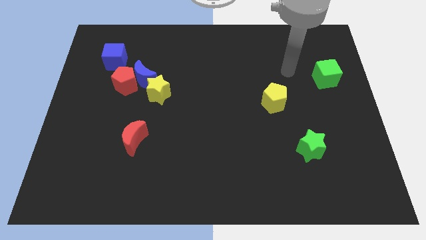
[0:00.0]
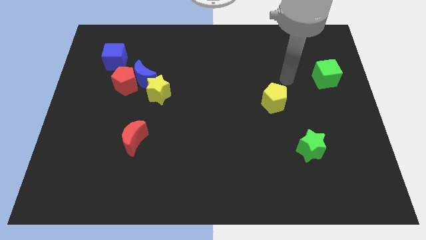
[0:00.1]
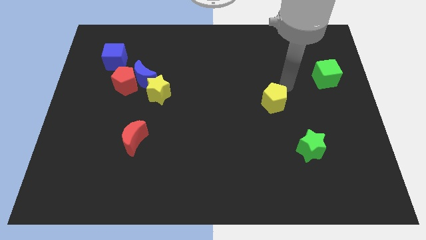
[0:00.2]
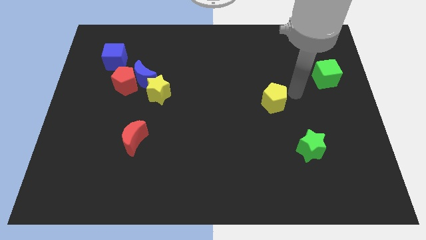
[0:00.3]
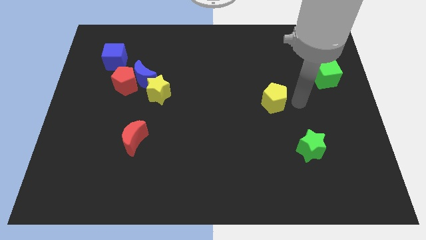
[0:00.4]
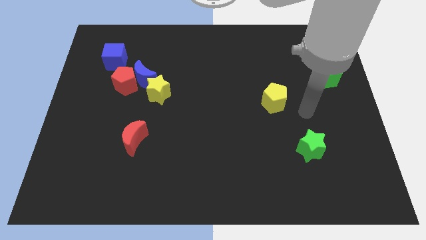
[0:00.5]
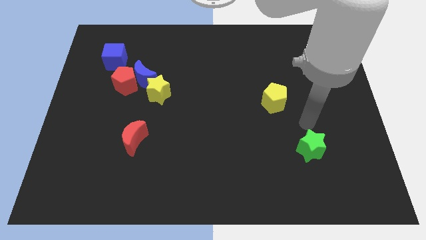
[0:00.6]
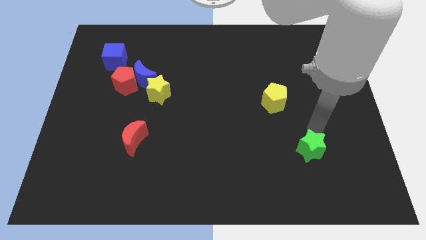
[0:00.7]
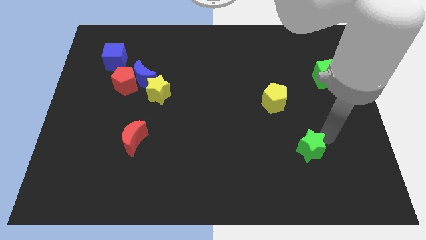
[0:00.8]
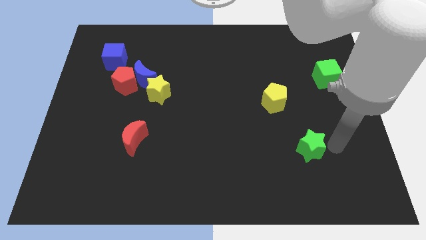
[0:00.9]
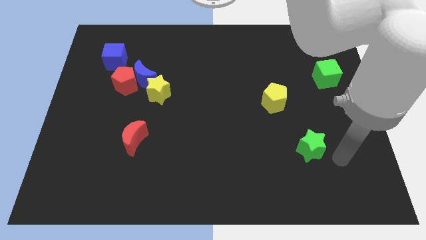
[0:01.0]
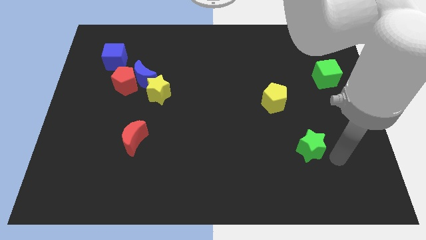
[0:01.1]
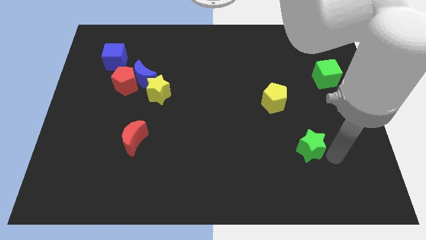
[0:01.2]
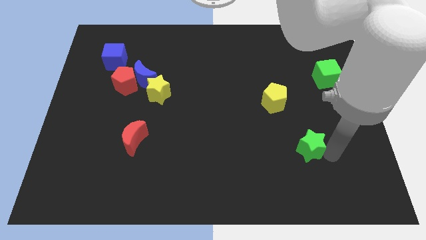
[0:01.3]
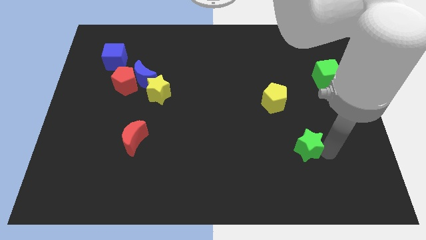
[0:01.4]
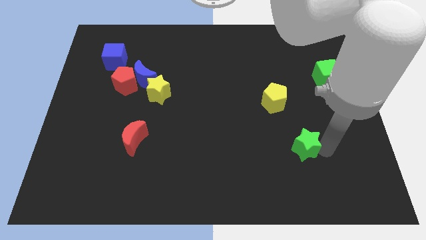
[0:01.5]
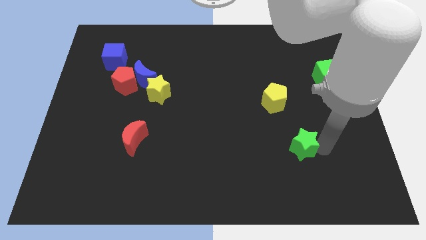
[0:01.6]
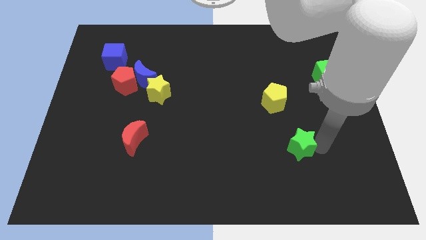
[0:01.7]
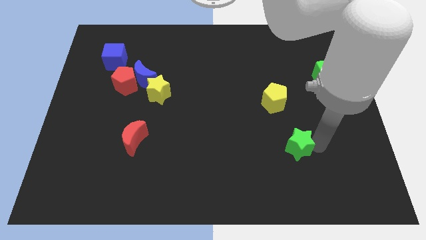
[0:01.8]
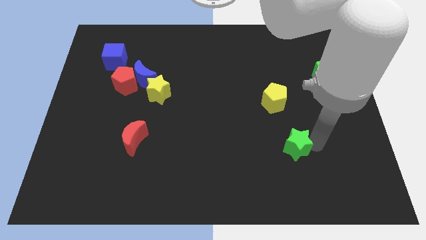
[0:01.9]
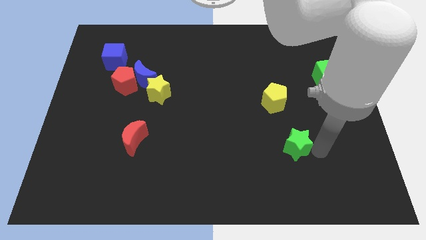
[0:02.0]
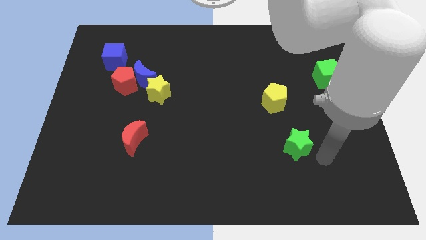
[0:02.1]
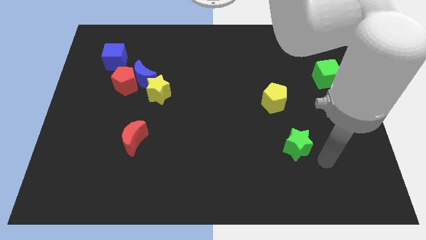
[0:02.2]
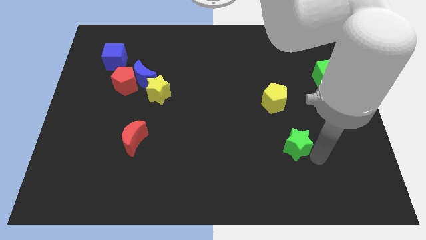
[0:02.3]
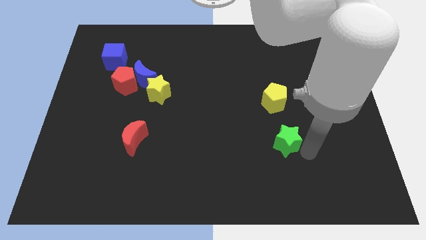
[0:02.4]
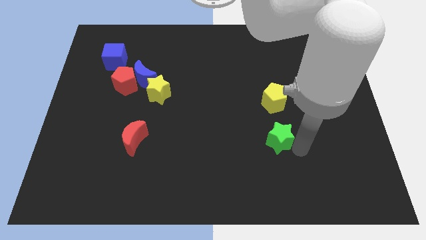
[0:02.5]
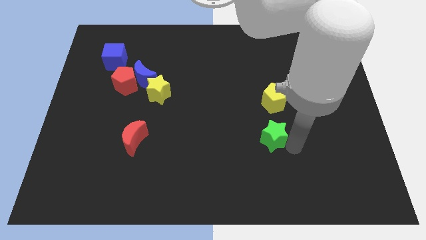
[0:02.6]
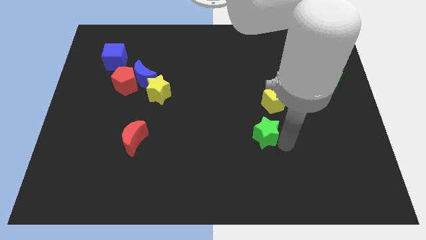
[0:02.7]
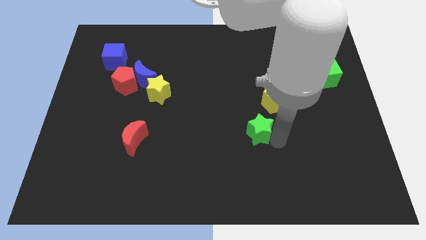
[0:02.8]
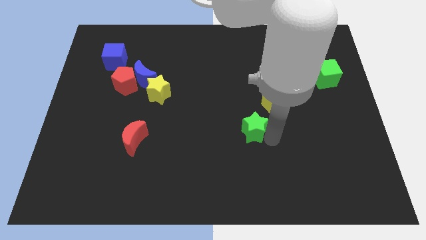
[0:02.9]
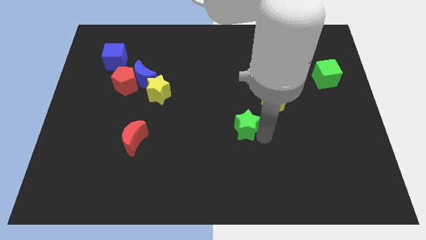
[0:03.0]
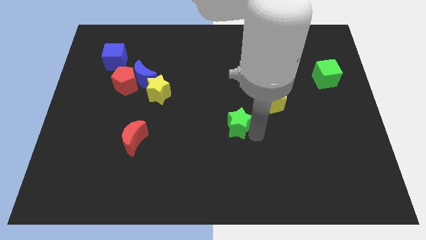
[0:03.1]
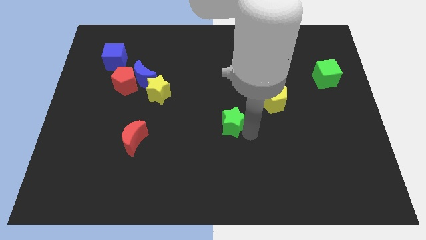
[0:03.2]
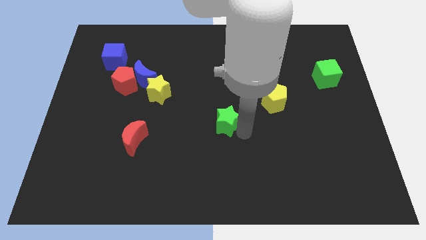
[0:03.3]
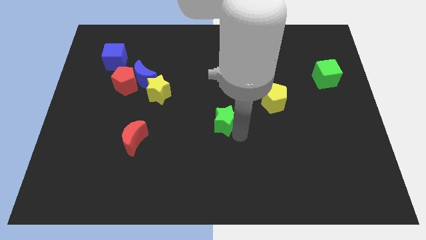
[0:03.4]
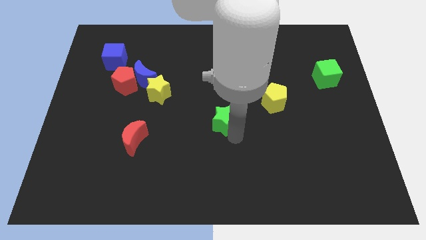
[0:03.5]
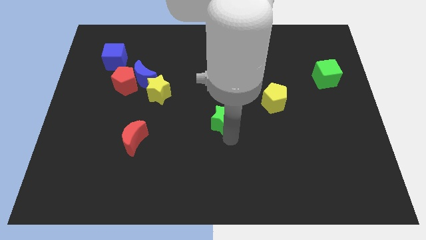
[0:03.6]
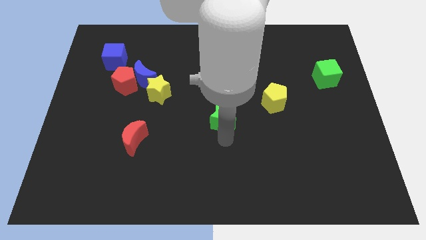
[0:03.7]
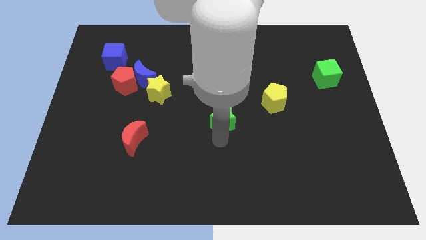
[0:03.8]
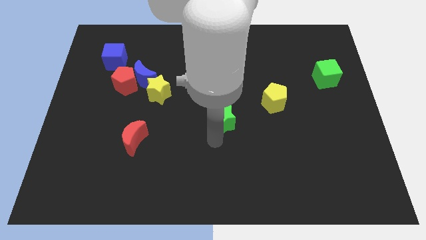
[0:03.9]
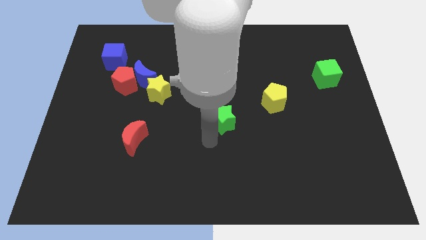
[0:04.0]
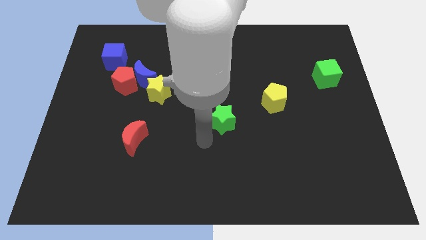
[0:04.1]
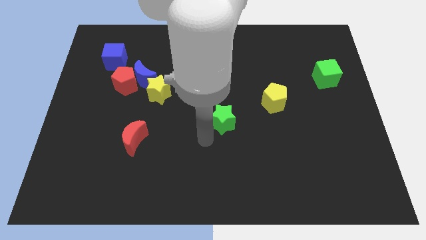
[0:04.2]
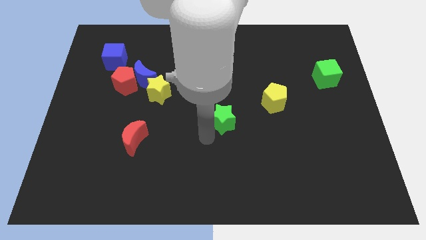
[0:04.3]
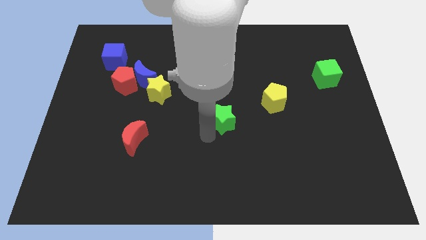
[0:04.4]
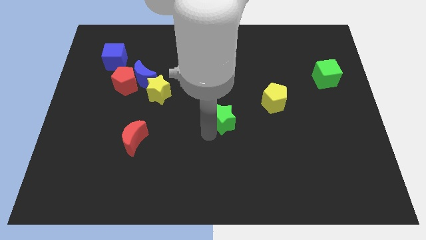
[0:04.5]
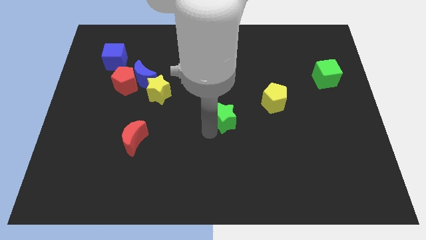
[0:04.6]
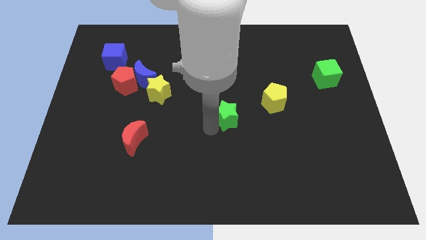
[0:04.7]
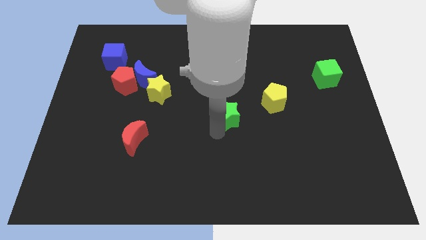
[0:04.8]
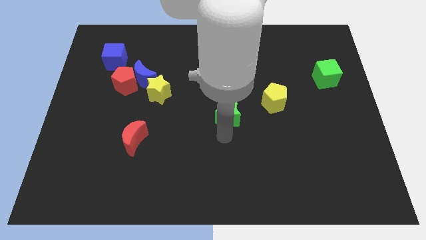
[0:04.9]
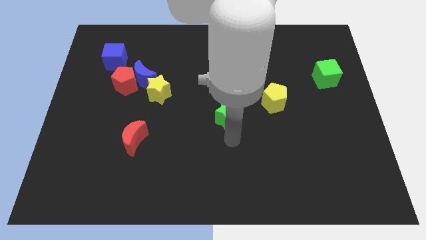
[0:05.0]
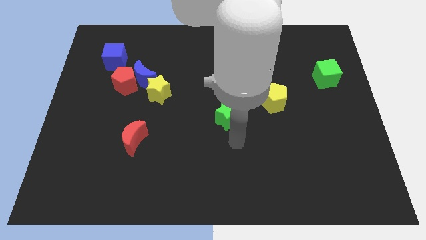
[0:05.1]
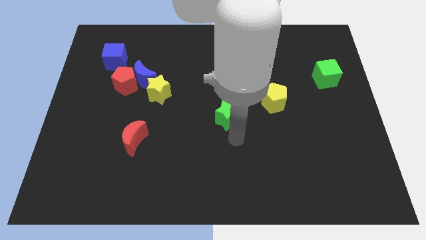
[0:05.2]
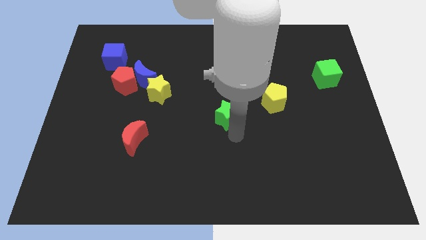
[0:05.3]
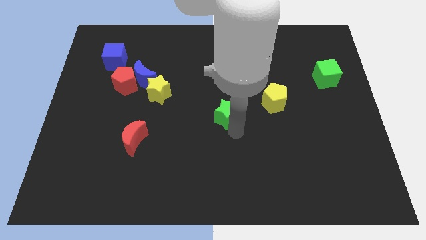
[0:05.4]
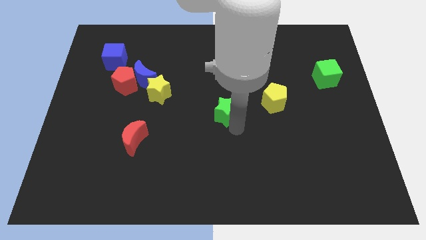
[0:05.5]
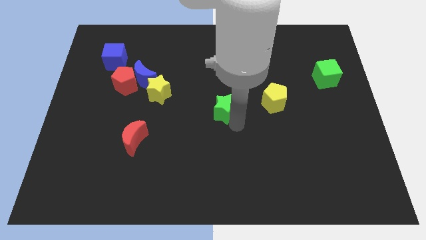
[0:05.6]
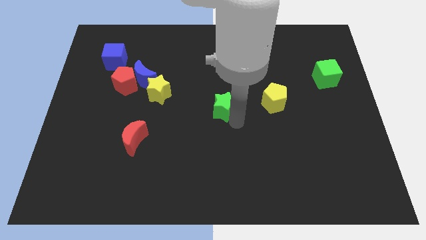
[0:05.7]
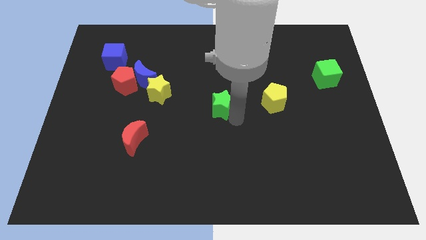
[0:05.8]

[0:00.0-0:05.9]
push the green star up and then left

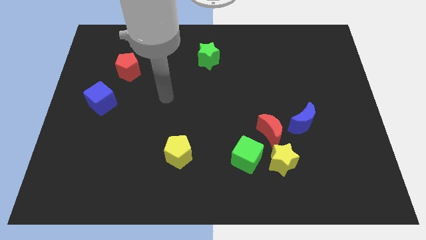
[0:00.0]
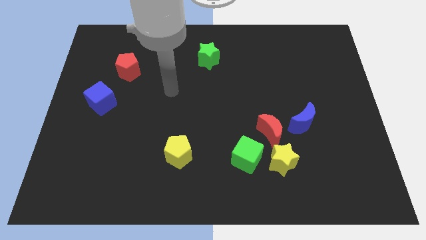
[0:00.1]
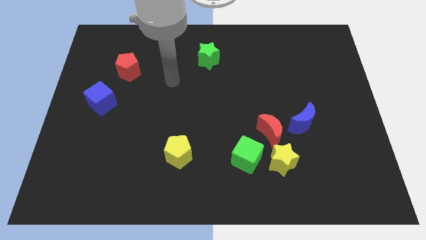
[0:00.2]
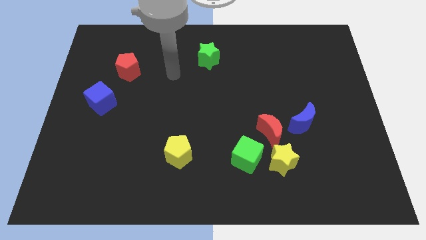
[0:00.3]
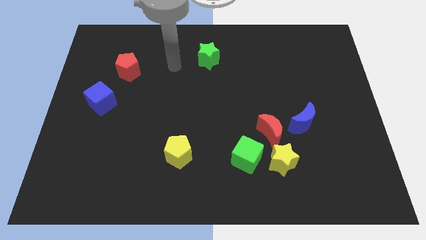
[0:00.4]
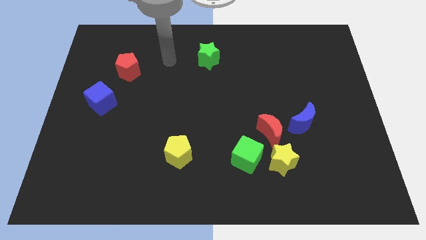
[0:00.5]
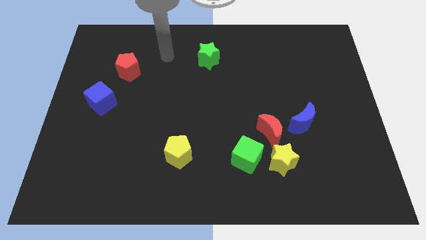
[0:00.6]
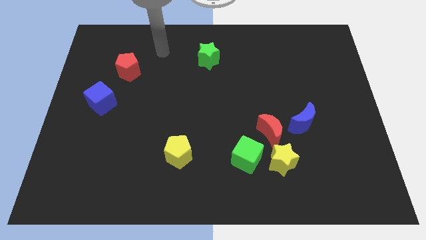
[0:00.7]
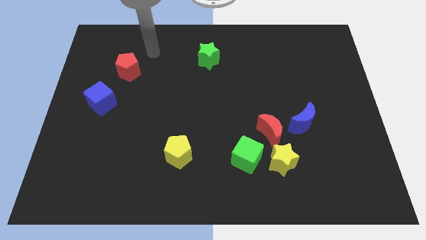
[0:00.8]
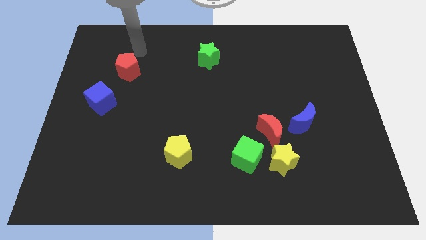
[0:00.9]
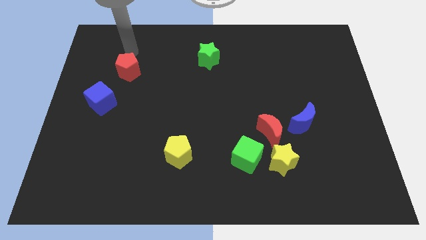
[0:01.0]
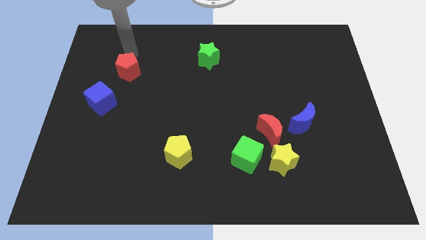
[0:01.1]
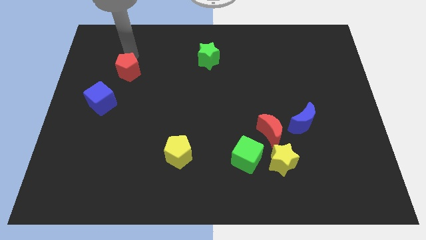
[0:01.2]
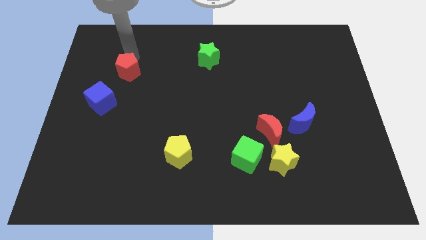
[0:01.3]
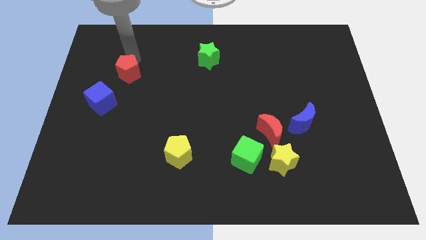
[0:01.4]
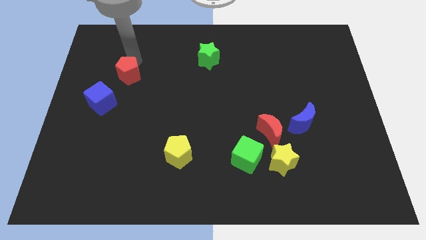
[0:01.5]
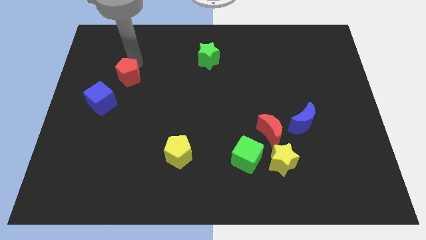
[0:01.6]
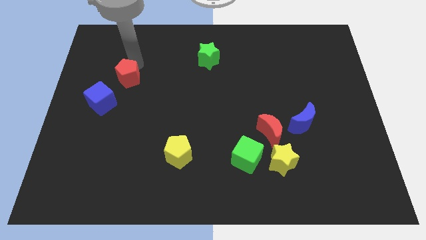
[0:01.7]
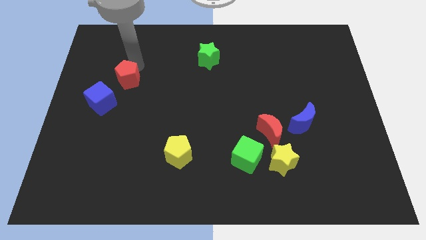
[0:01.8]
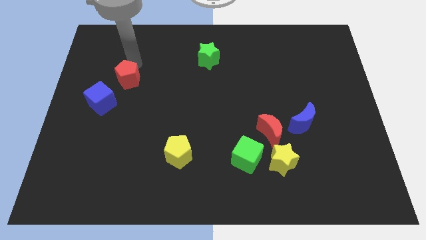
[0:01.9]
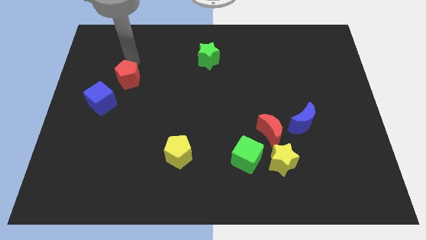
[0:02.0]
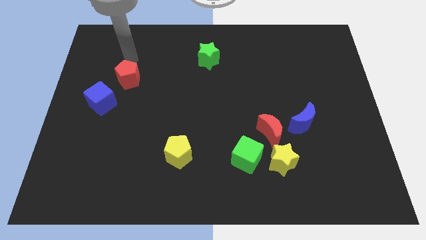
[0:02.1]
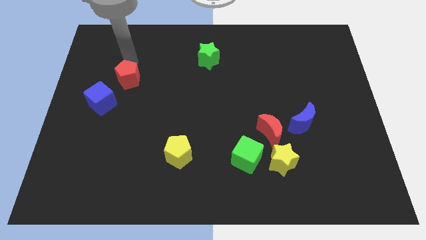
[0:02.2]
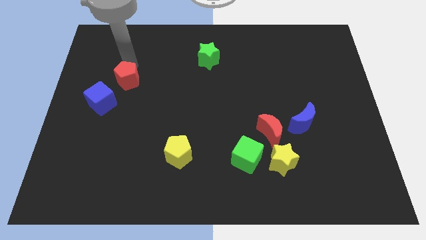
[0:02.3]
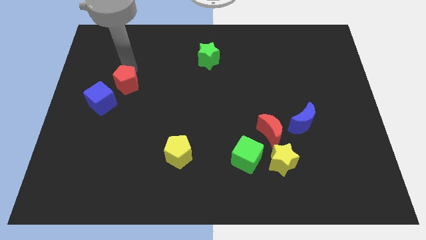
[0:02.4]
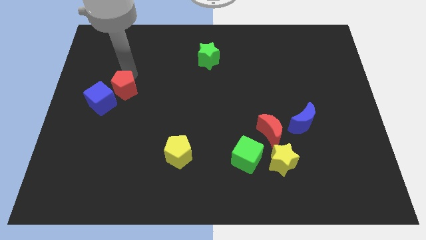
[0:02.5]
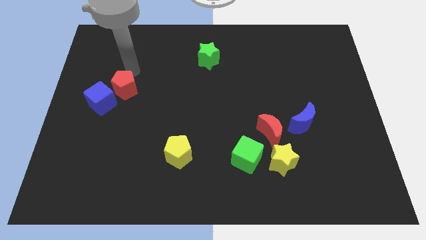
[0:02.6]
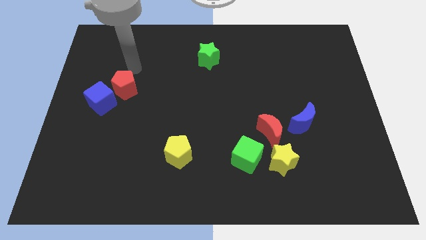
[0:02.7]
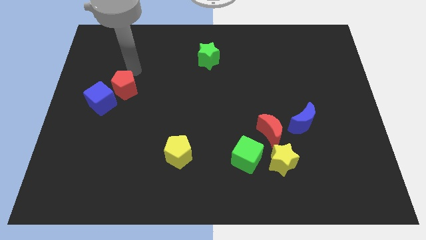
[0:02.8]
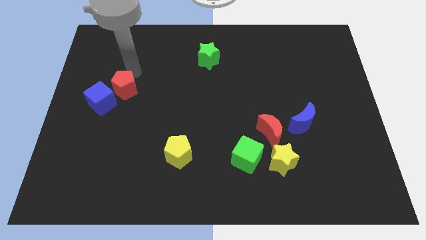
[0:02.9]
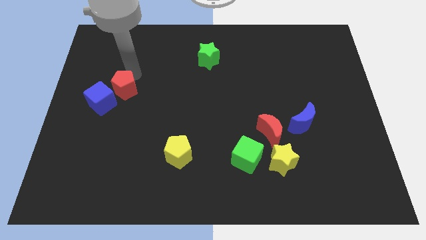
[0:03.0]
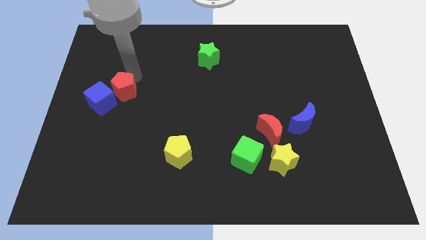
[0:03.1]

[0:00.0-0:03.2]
move the red pentagon down a bit
